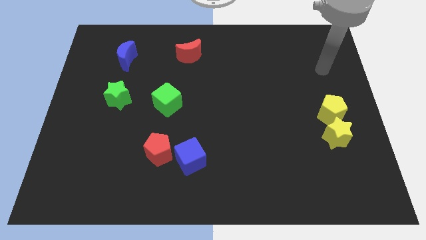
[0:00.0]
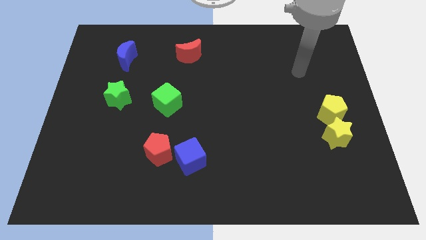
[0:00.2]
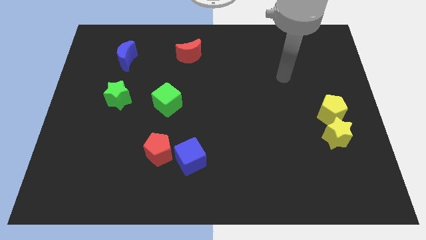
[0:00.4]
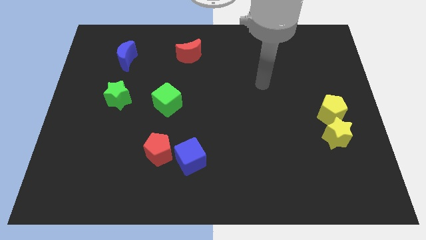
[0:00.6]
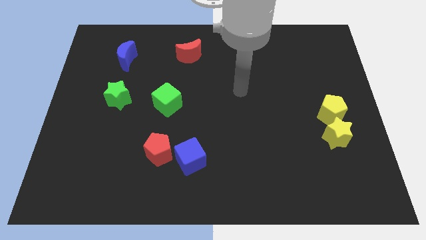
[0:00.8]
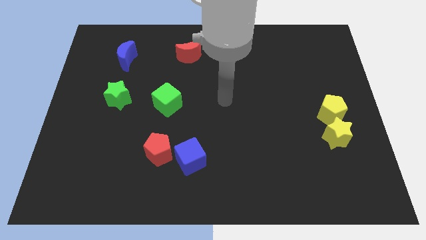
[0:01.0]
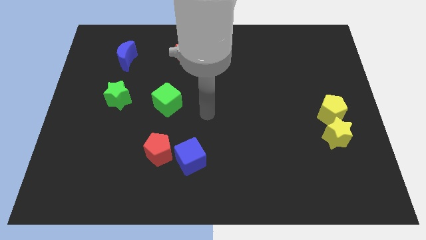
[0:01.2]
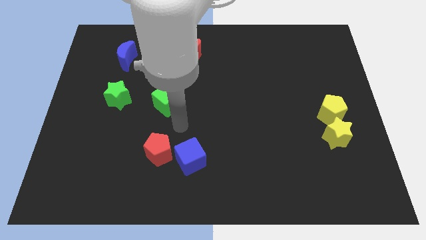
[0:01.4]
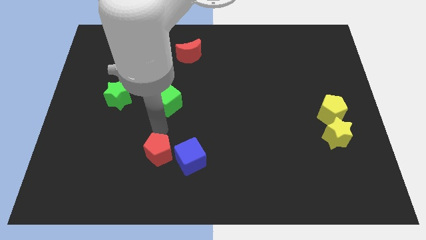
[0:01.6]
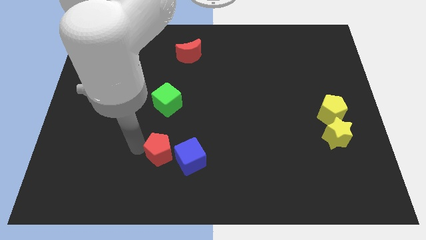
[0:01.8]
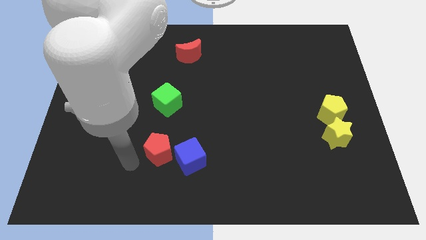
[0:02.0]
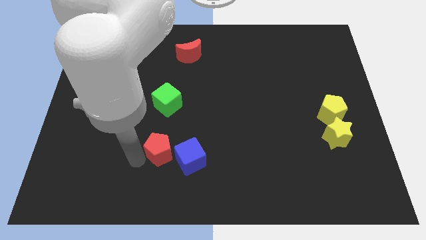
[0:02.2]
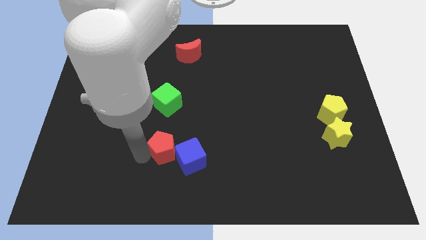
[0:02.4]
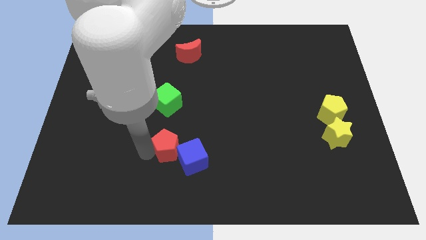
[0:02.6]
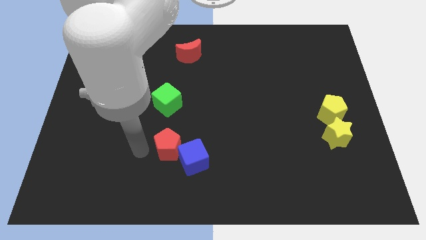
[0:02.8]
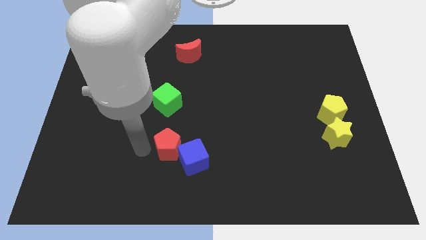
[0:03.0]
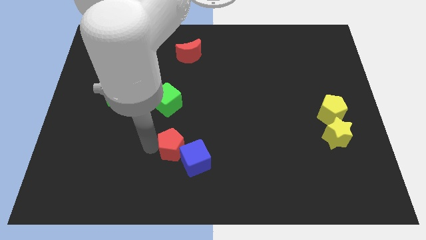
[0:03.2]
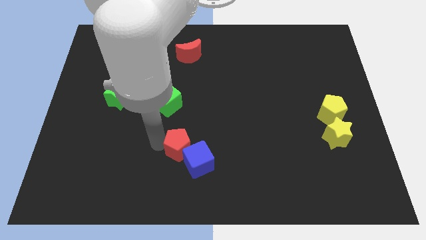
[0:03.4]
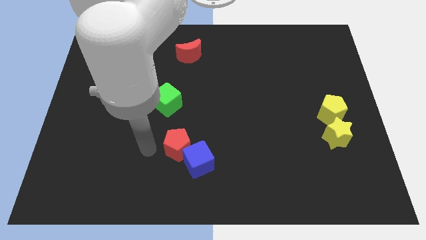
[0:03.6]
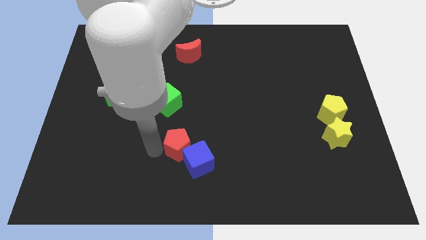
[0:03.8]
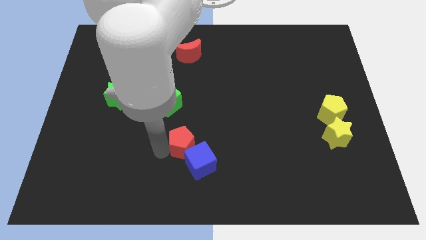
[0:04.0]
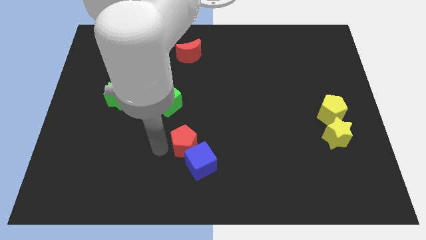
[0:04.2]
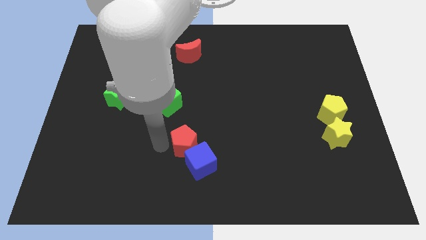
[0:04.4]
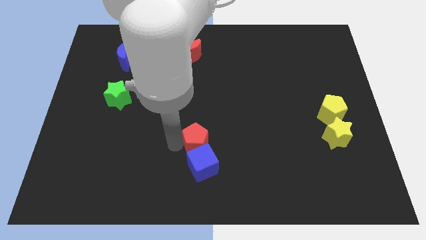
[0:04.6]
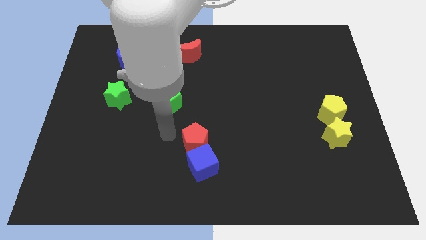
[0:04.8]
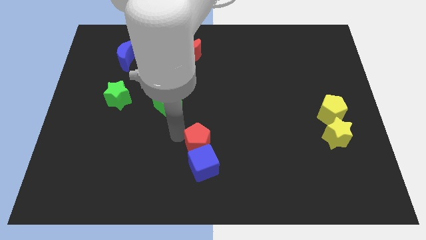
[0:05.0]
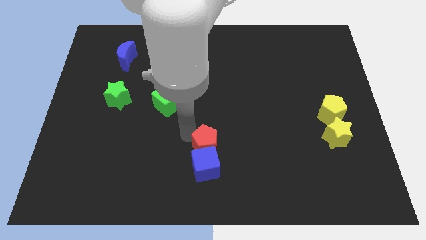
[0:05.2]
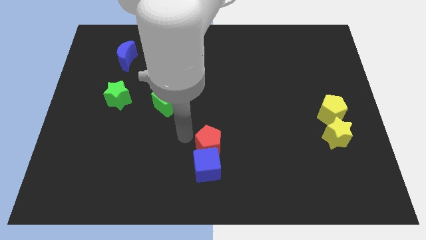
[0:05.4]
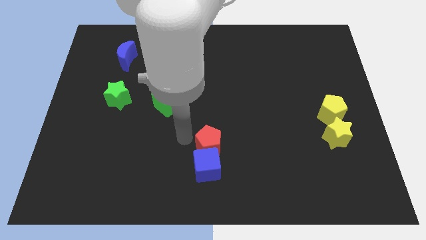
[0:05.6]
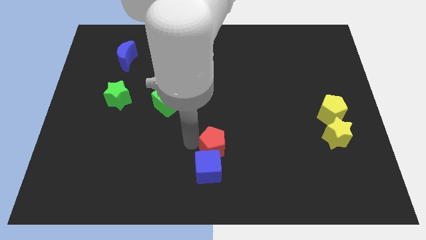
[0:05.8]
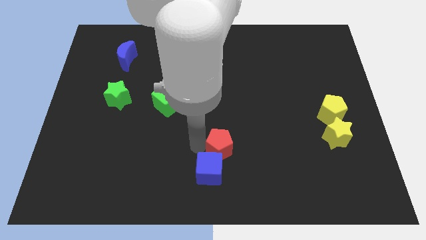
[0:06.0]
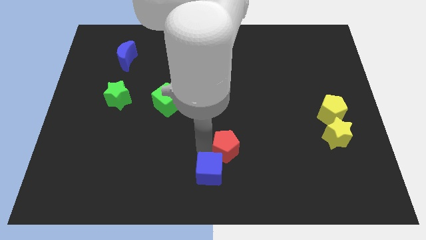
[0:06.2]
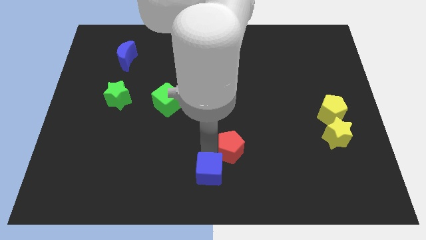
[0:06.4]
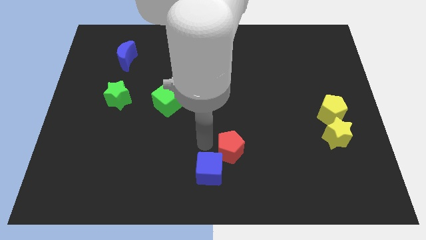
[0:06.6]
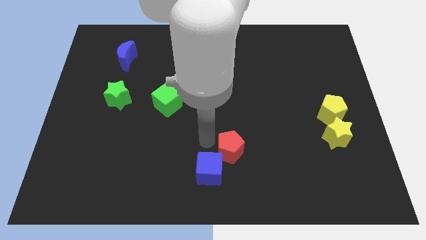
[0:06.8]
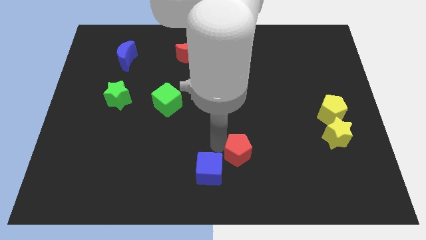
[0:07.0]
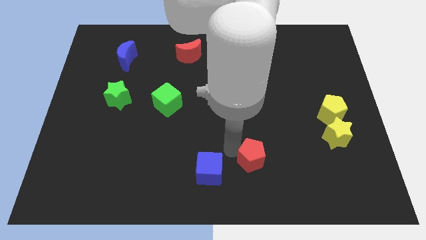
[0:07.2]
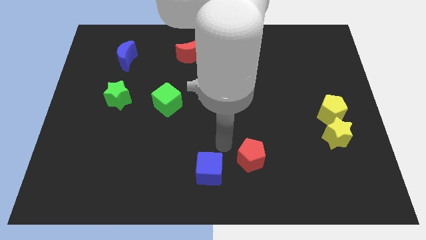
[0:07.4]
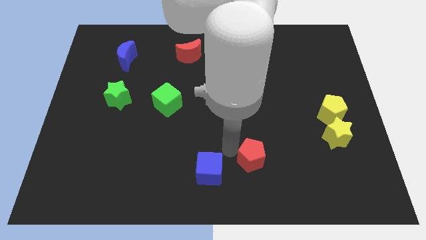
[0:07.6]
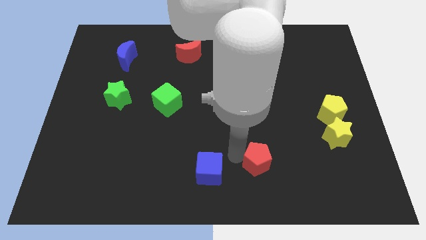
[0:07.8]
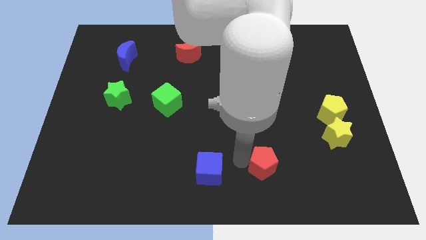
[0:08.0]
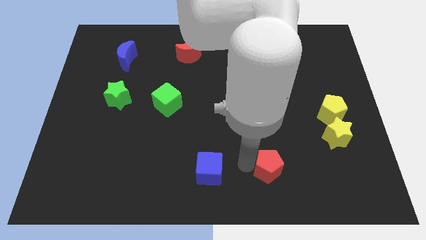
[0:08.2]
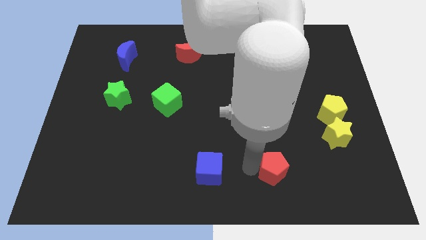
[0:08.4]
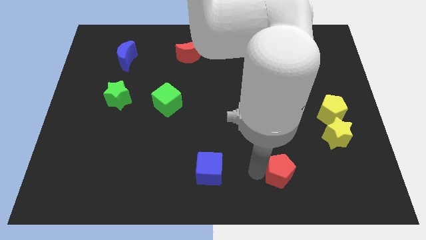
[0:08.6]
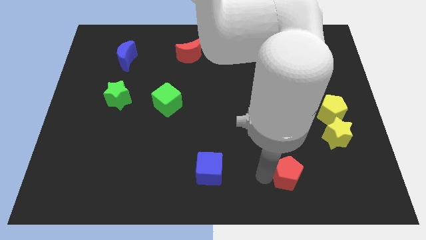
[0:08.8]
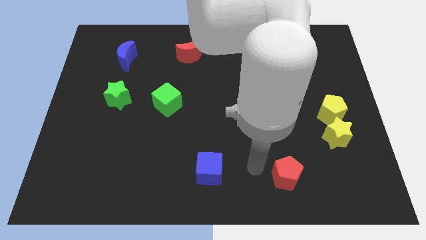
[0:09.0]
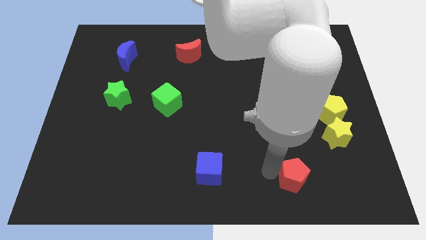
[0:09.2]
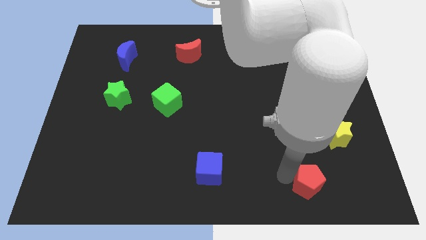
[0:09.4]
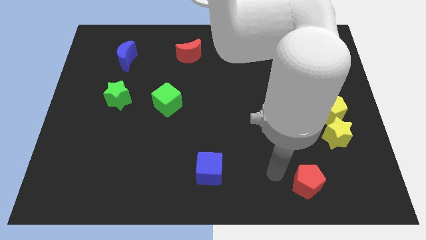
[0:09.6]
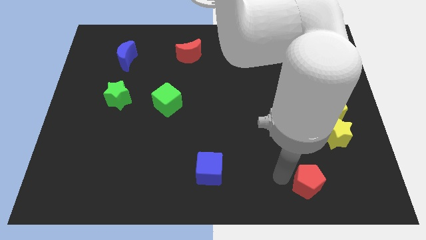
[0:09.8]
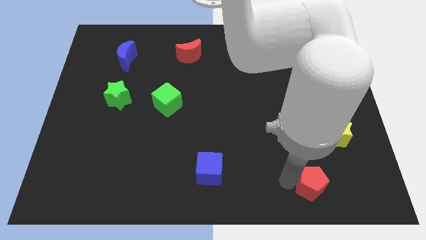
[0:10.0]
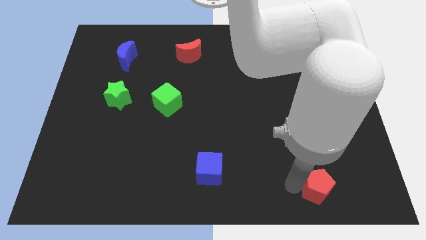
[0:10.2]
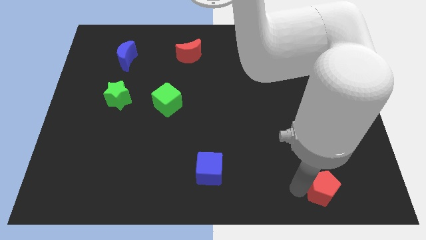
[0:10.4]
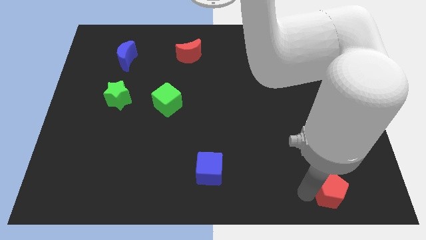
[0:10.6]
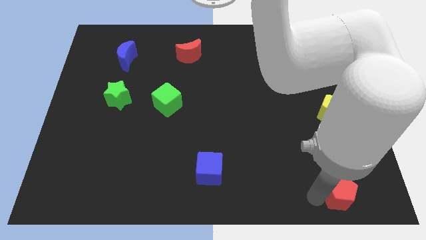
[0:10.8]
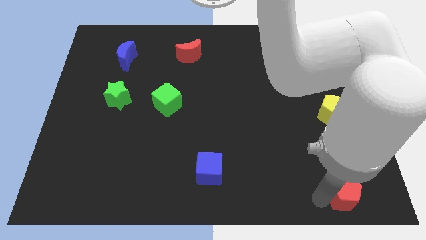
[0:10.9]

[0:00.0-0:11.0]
slide the red pentagon to the bottom right

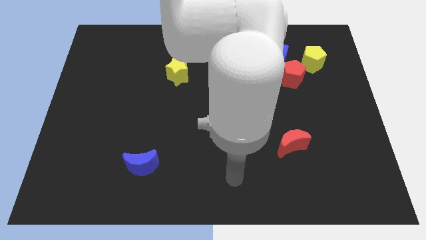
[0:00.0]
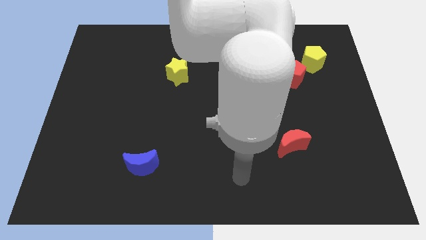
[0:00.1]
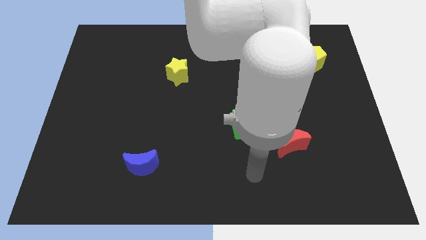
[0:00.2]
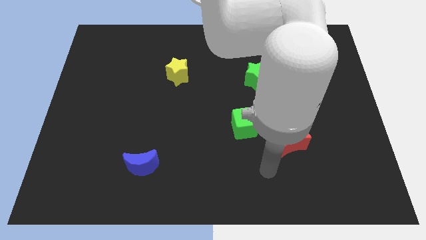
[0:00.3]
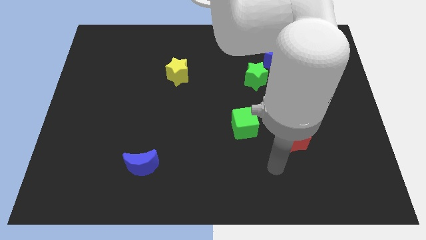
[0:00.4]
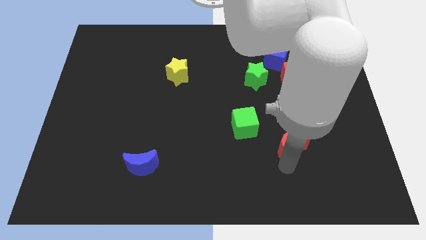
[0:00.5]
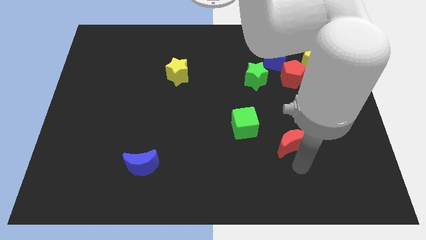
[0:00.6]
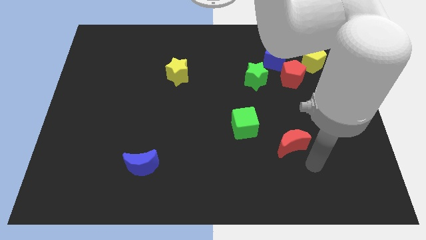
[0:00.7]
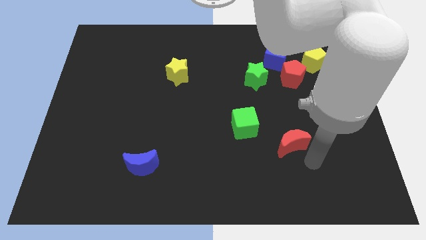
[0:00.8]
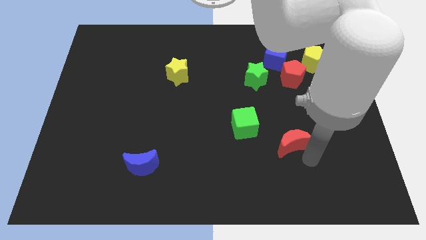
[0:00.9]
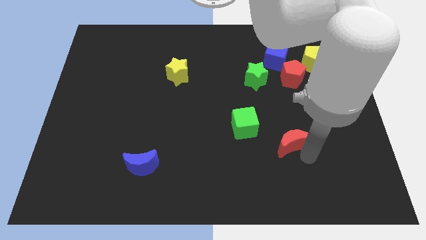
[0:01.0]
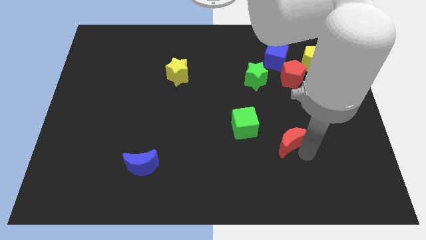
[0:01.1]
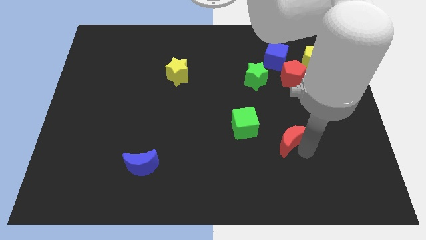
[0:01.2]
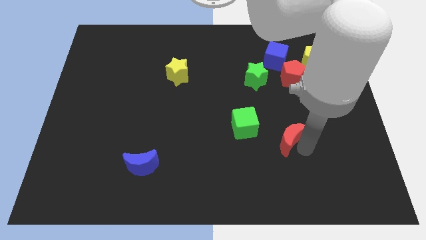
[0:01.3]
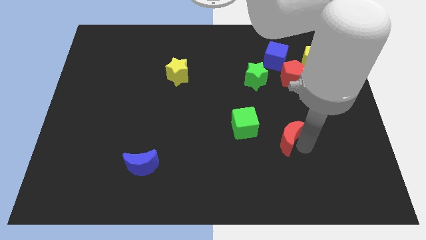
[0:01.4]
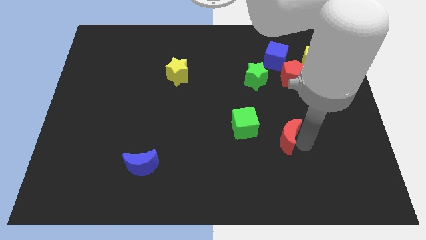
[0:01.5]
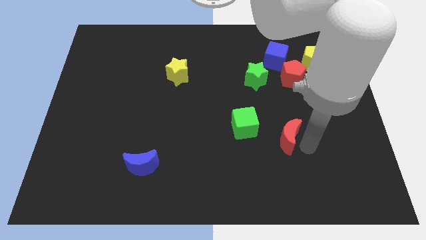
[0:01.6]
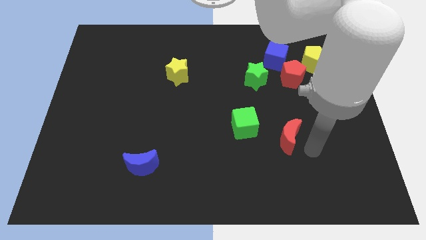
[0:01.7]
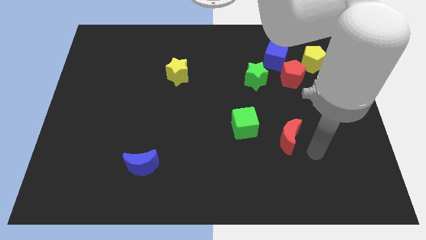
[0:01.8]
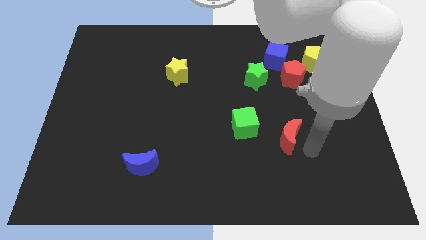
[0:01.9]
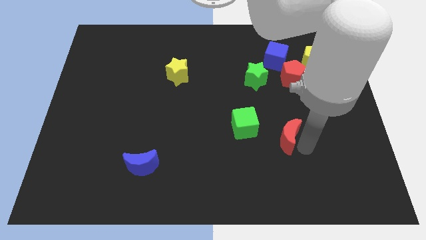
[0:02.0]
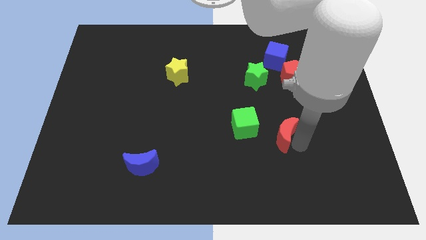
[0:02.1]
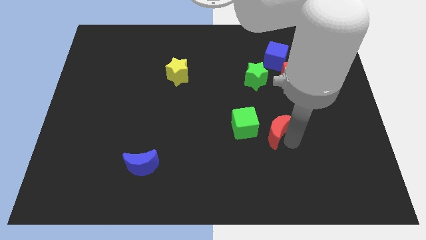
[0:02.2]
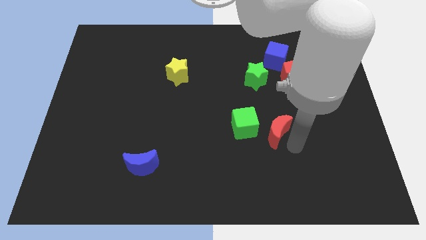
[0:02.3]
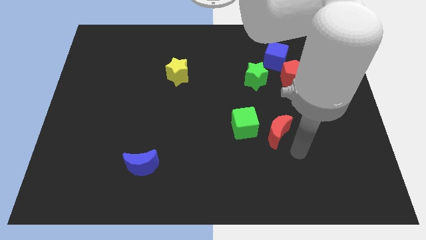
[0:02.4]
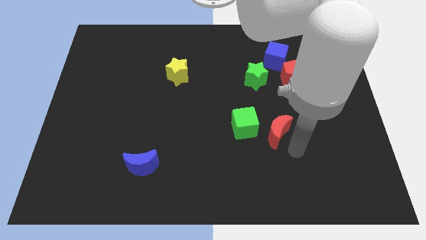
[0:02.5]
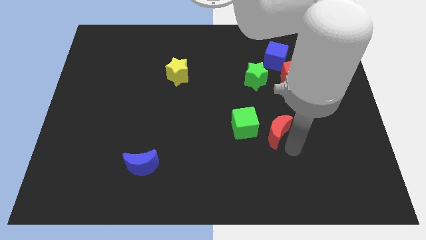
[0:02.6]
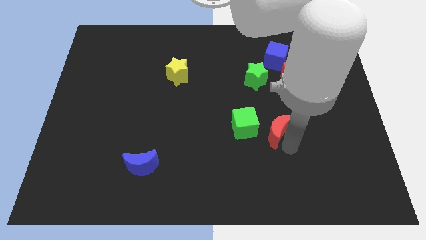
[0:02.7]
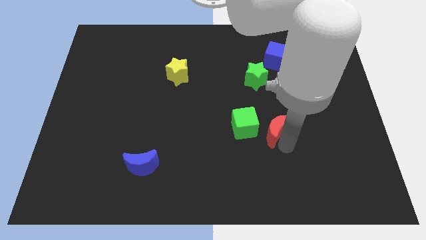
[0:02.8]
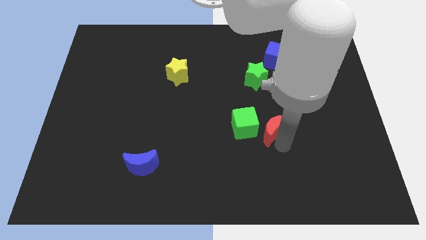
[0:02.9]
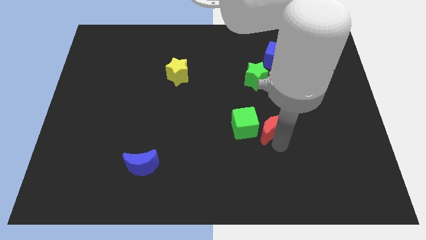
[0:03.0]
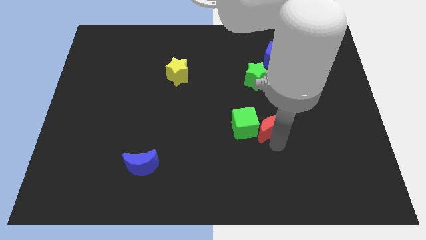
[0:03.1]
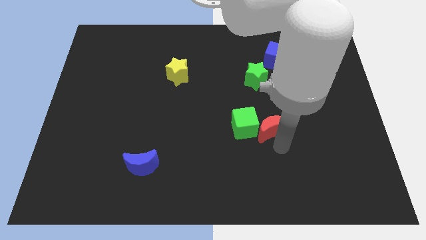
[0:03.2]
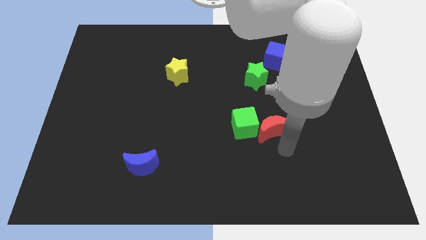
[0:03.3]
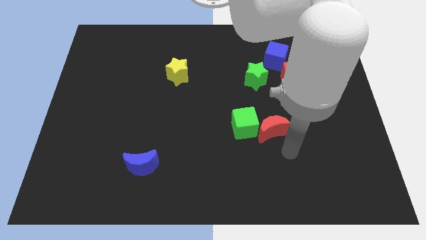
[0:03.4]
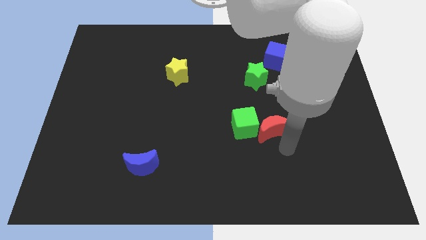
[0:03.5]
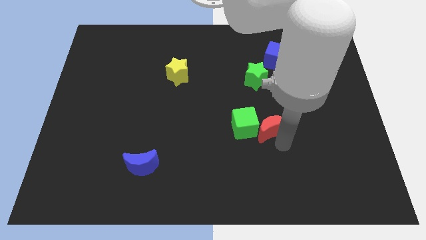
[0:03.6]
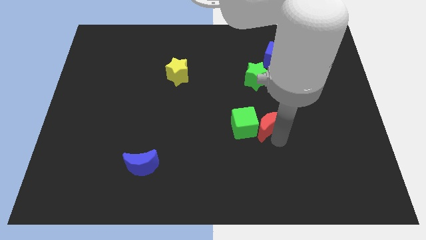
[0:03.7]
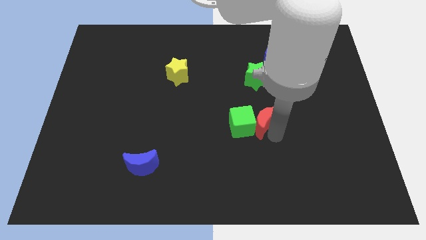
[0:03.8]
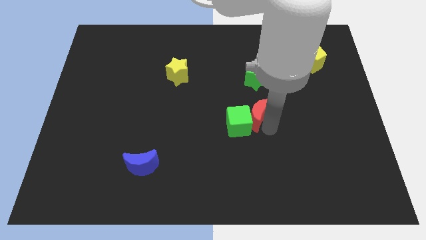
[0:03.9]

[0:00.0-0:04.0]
push the red moon to the middle of the board
